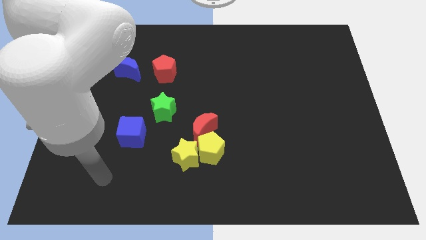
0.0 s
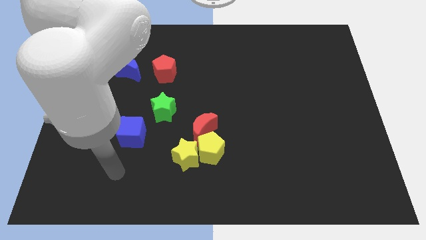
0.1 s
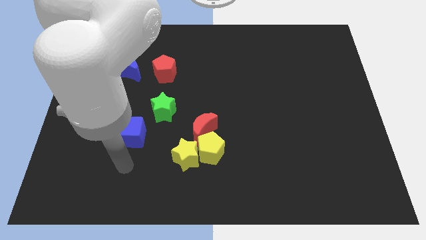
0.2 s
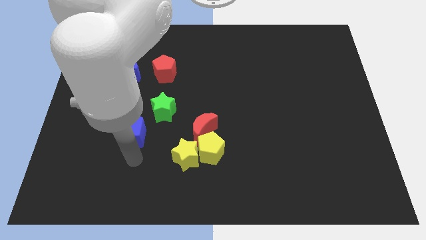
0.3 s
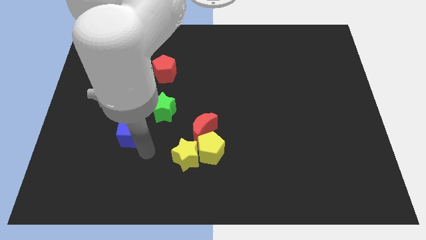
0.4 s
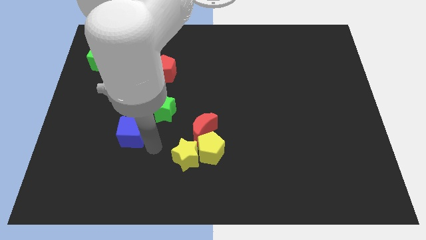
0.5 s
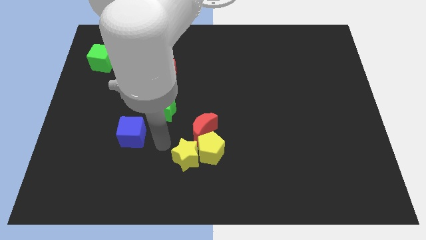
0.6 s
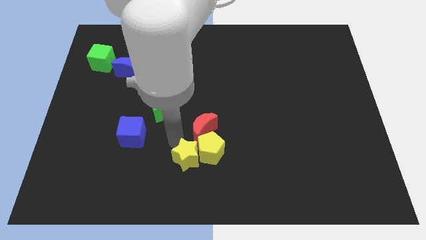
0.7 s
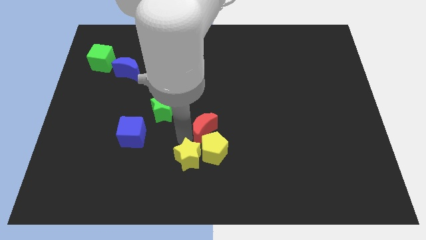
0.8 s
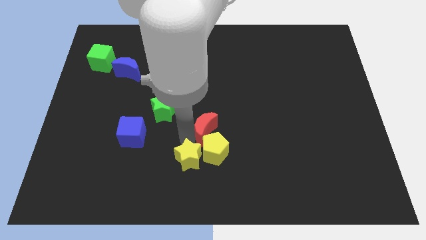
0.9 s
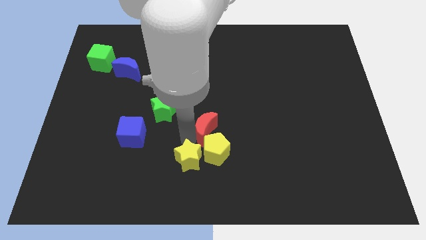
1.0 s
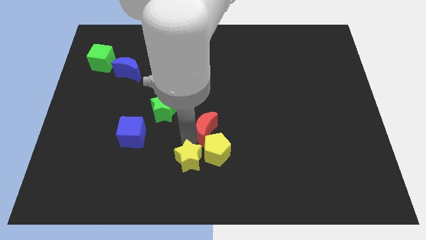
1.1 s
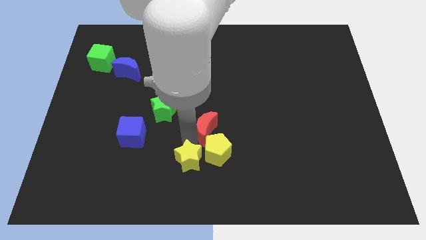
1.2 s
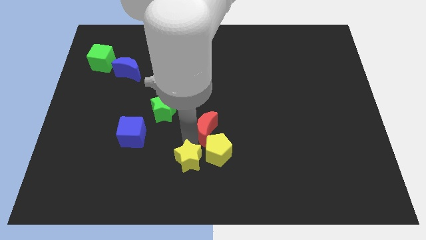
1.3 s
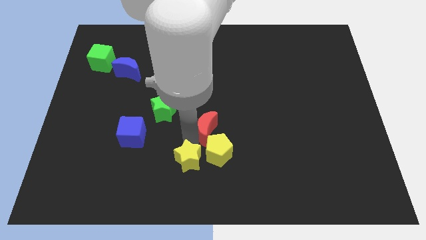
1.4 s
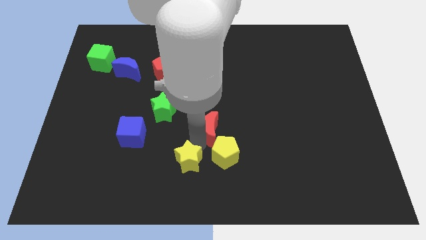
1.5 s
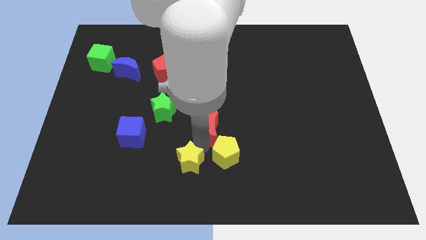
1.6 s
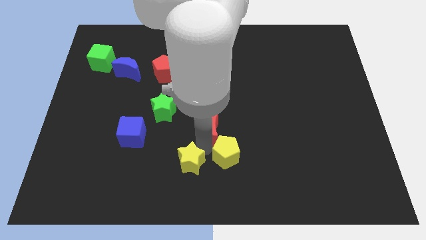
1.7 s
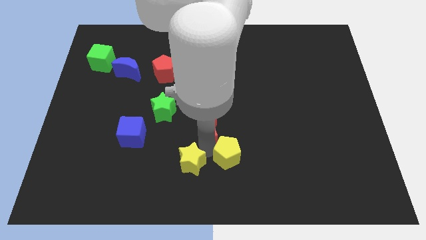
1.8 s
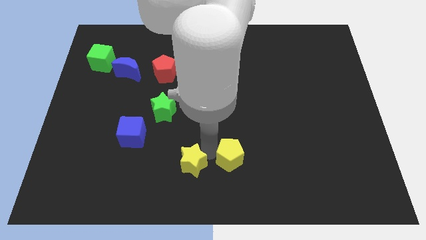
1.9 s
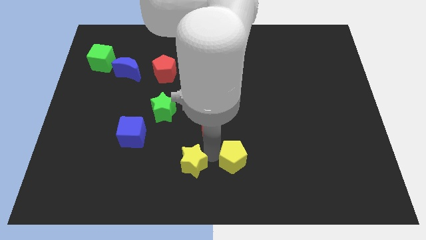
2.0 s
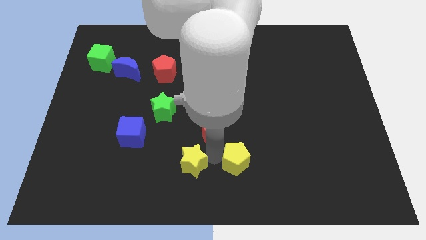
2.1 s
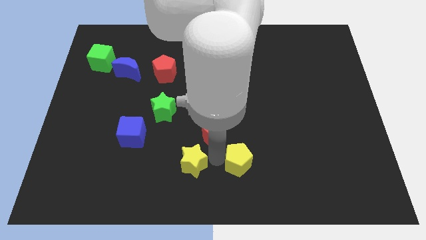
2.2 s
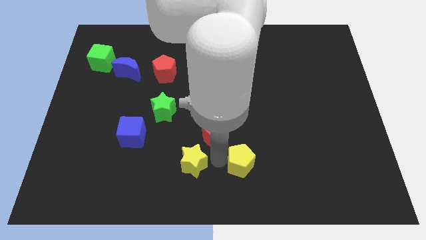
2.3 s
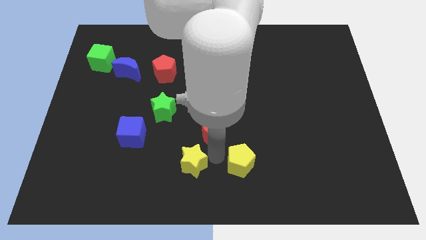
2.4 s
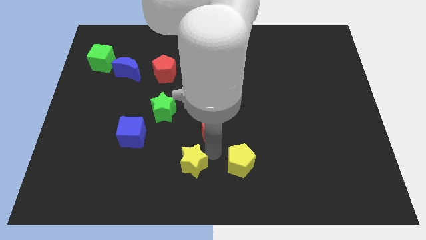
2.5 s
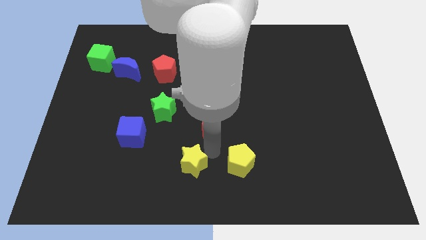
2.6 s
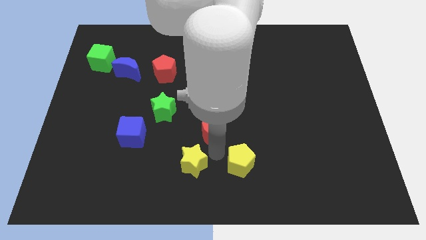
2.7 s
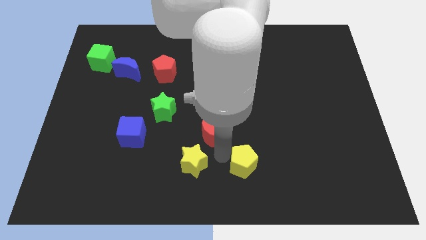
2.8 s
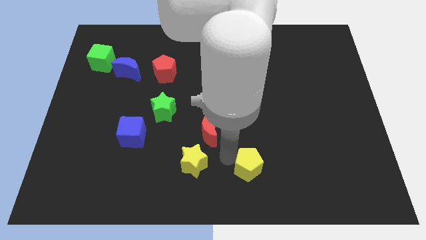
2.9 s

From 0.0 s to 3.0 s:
separate the yellow pentagon from the yellow star and red moon

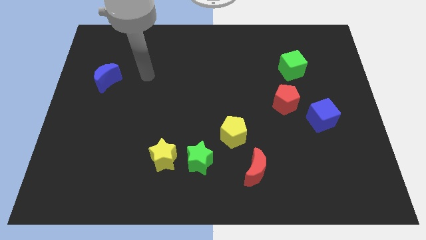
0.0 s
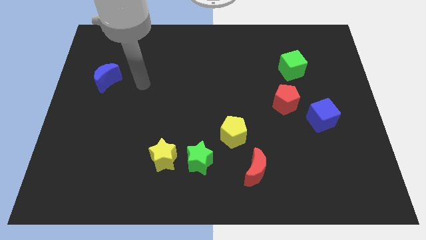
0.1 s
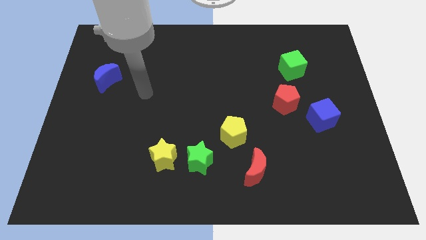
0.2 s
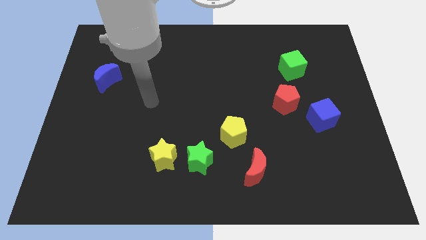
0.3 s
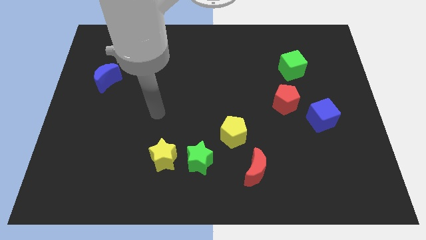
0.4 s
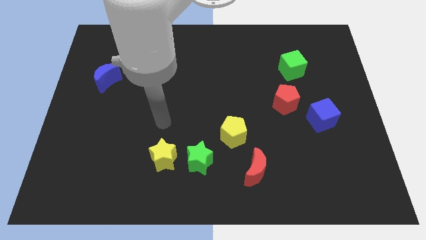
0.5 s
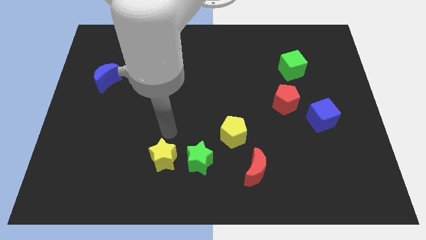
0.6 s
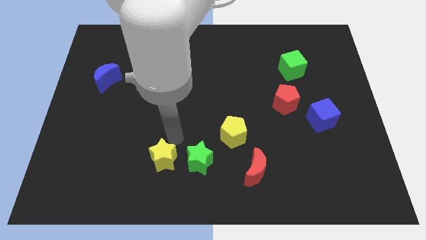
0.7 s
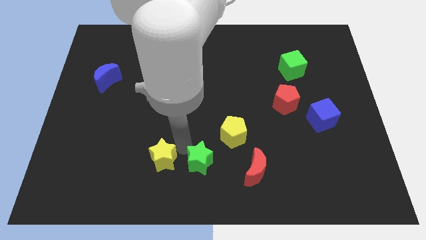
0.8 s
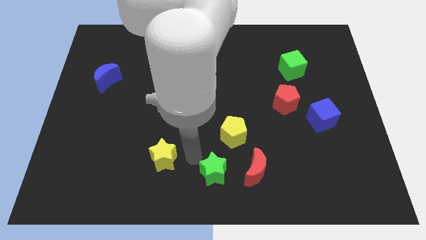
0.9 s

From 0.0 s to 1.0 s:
pull the yellow star apart from the green star

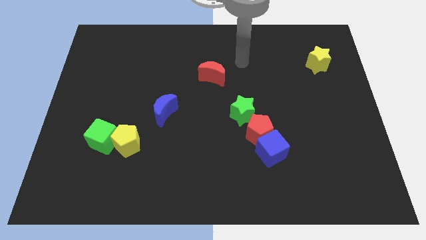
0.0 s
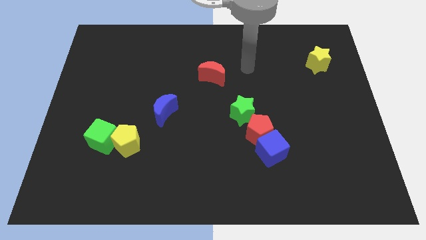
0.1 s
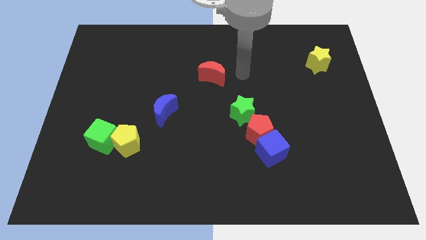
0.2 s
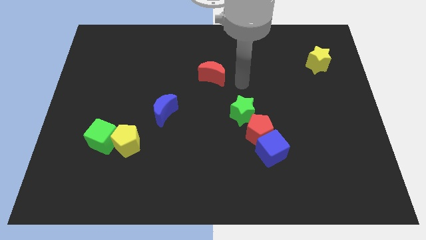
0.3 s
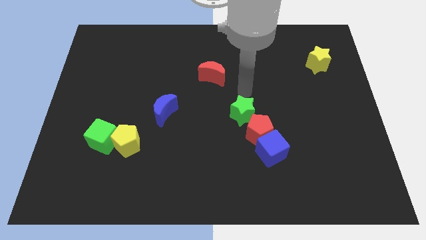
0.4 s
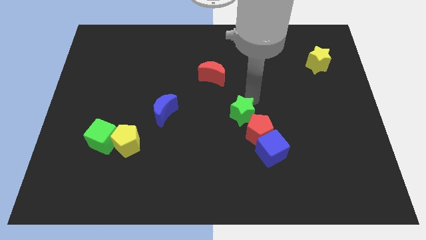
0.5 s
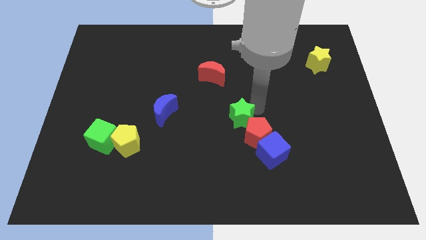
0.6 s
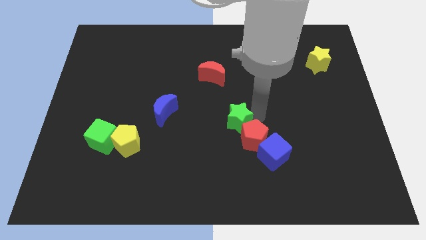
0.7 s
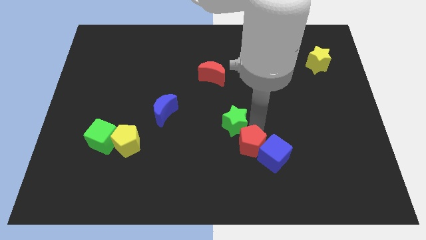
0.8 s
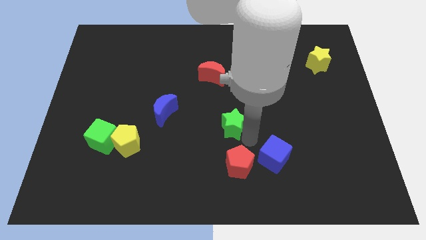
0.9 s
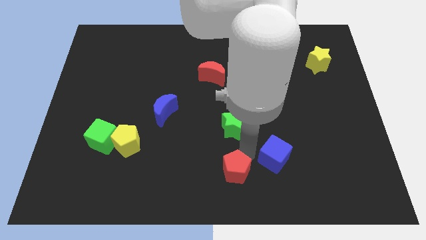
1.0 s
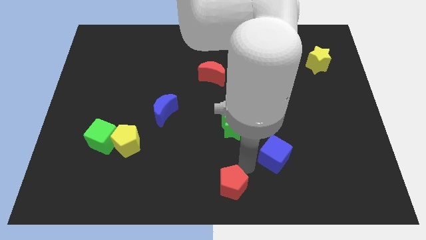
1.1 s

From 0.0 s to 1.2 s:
separate the blue cube from the red pentagon

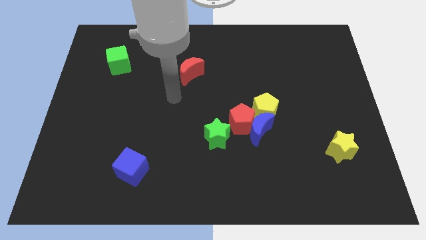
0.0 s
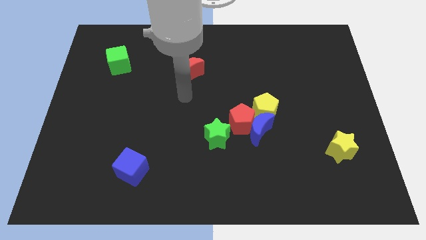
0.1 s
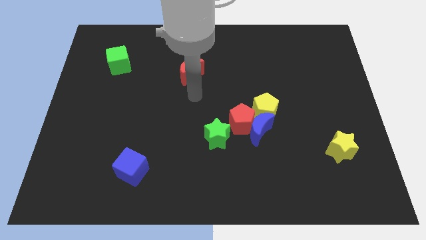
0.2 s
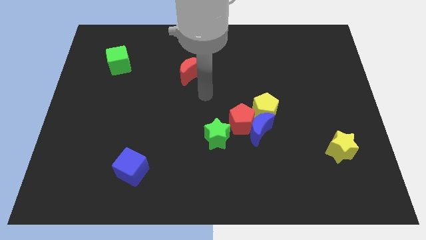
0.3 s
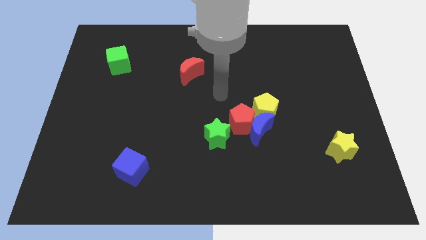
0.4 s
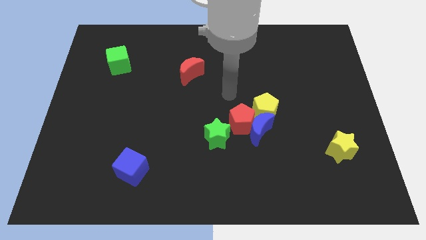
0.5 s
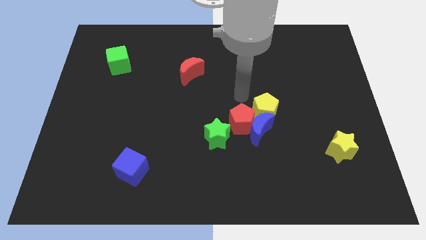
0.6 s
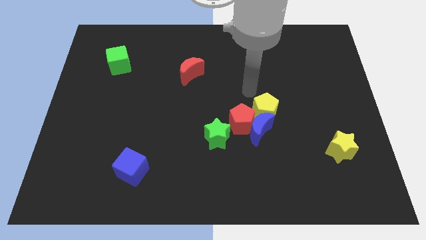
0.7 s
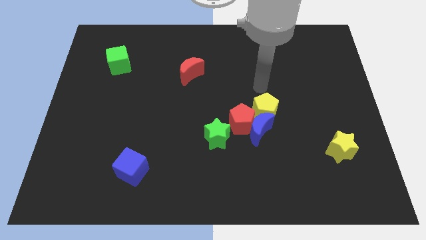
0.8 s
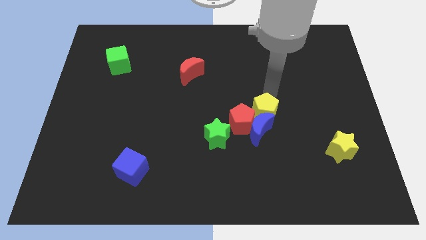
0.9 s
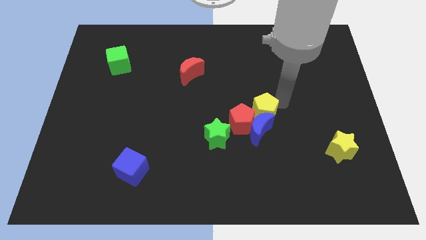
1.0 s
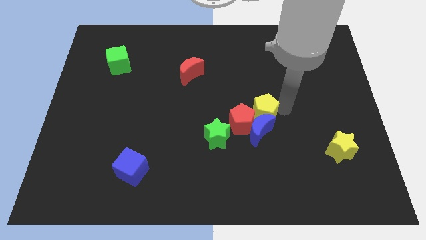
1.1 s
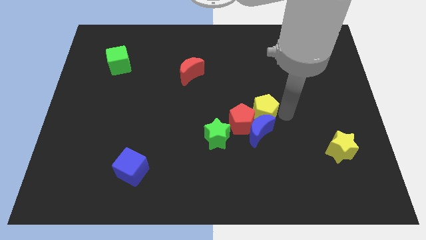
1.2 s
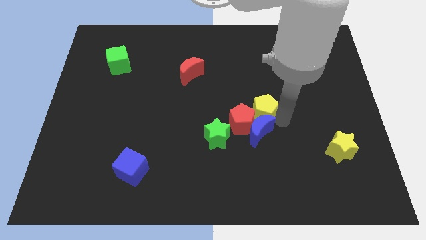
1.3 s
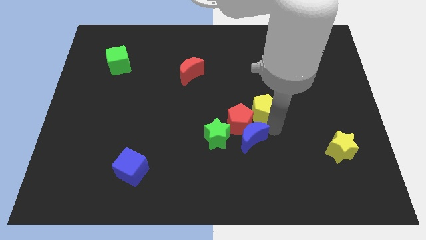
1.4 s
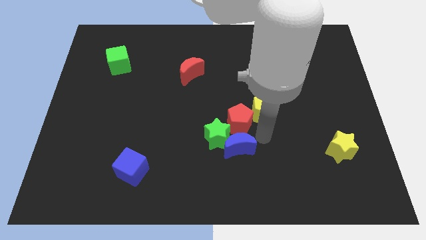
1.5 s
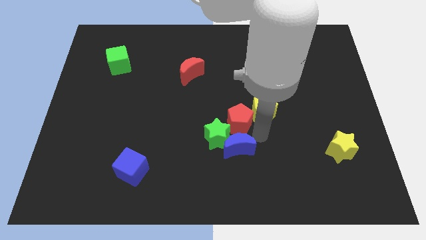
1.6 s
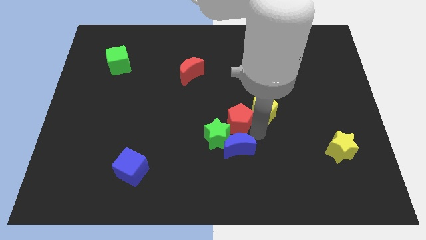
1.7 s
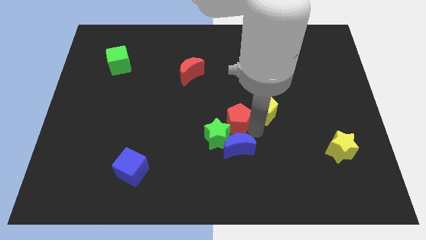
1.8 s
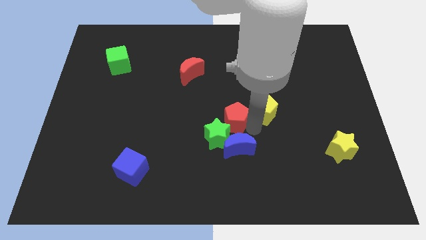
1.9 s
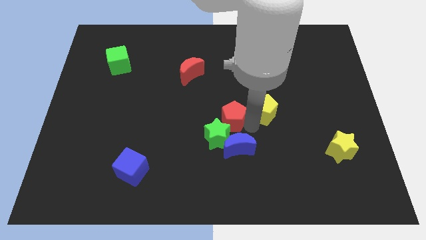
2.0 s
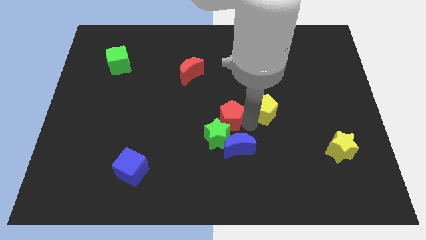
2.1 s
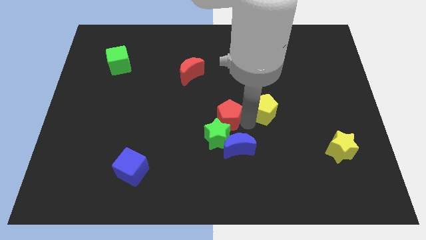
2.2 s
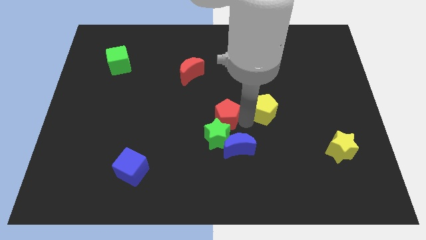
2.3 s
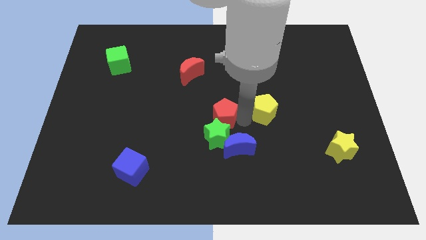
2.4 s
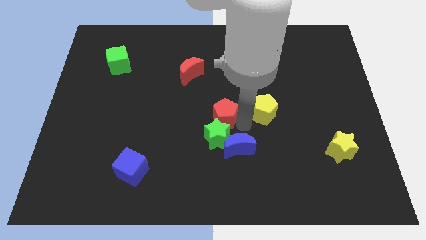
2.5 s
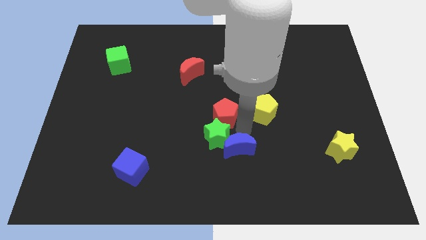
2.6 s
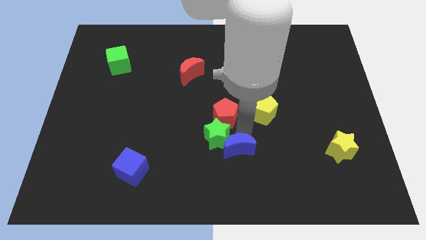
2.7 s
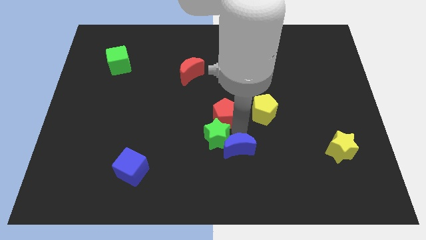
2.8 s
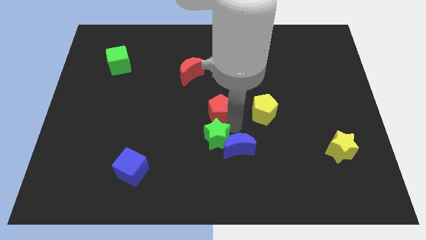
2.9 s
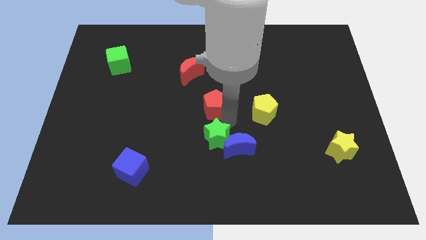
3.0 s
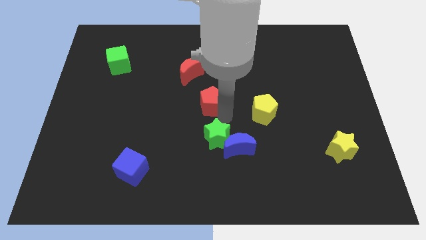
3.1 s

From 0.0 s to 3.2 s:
separate the red pentagon from the blue moon, yellow pentagon, and green star

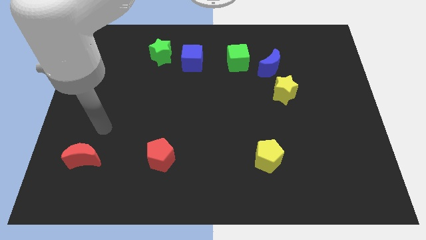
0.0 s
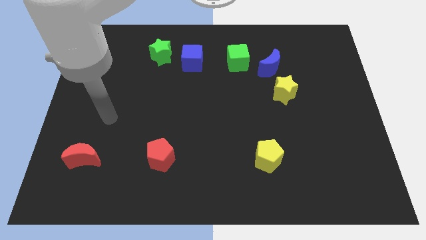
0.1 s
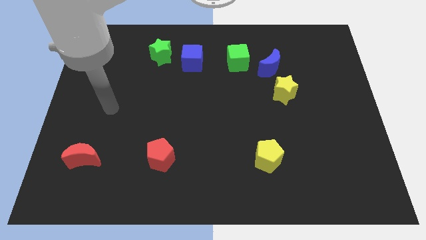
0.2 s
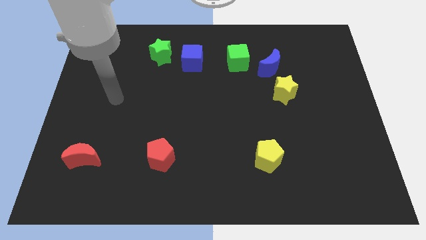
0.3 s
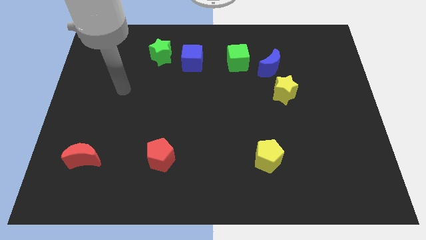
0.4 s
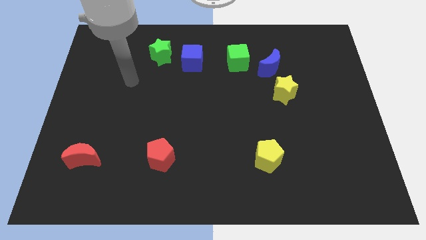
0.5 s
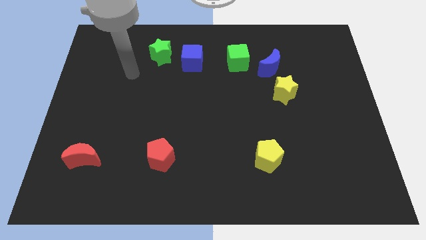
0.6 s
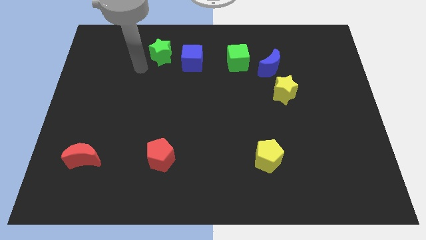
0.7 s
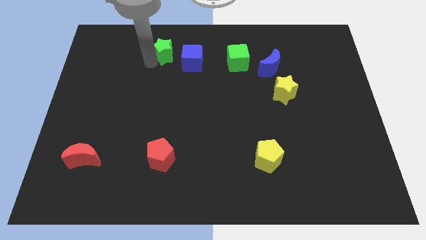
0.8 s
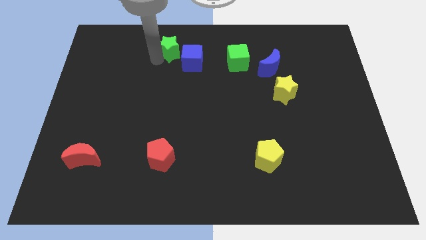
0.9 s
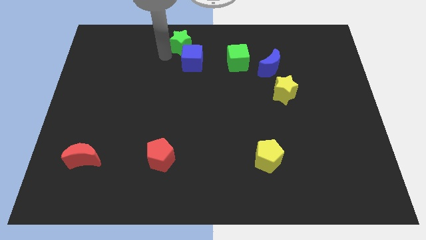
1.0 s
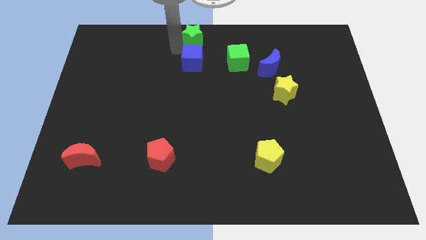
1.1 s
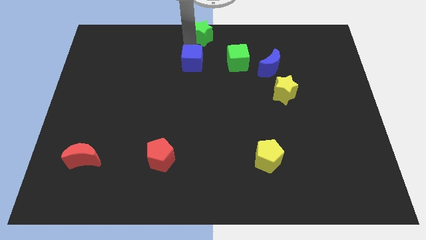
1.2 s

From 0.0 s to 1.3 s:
pull the blue cube apart from the green star
